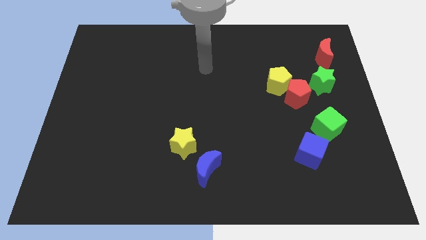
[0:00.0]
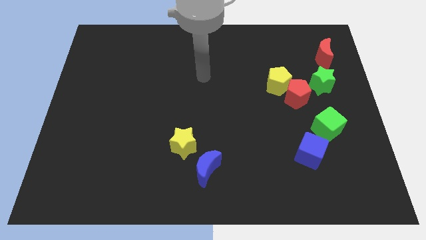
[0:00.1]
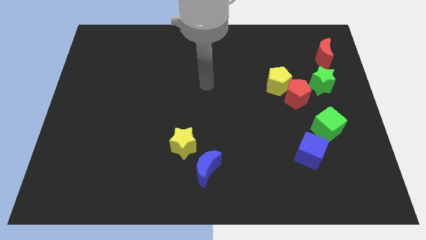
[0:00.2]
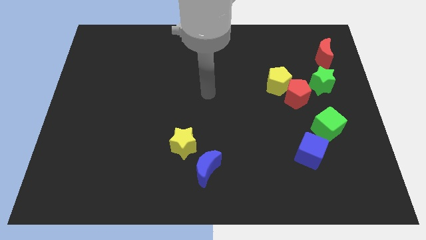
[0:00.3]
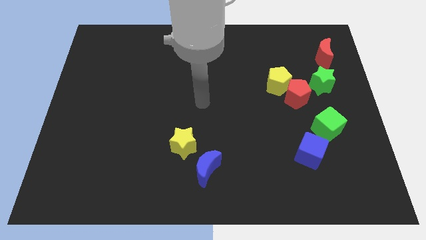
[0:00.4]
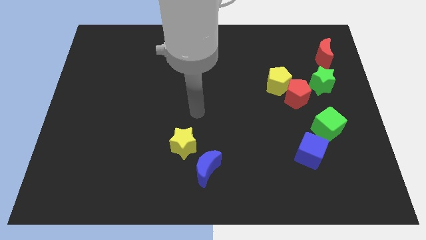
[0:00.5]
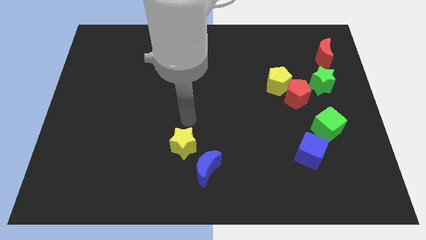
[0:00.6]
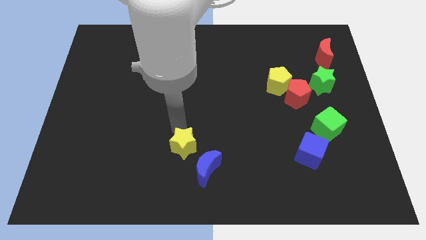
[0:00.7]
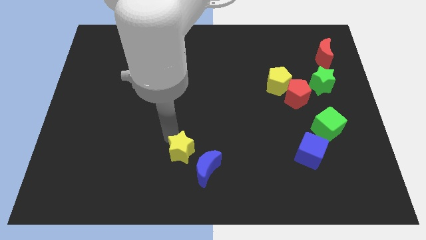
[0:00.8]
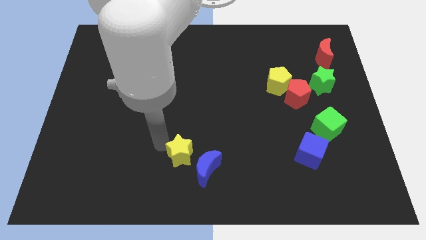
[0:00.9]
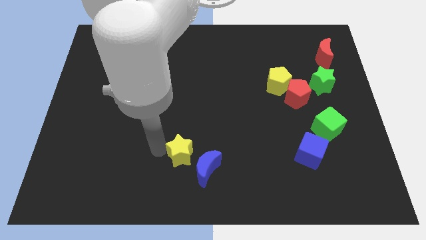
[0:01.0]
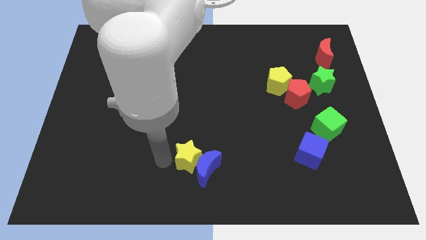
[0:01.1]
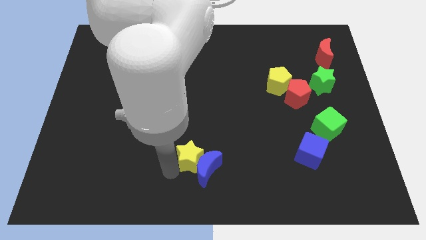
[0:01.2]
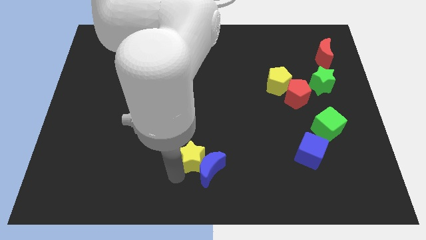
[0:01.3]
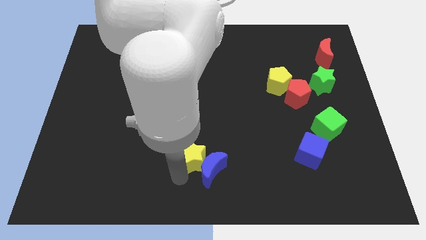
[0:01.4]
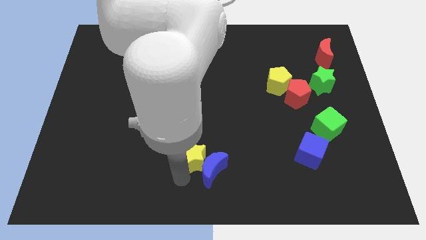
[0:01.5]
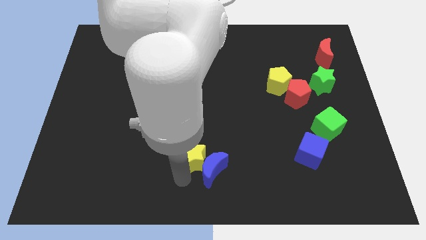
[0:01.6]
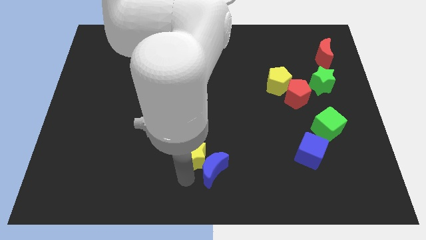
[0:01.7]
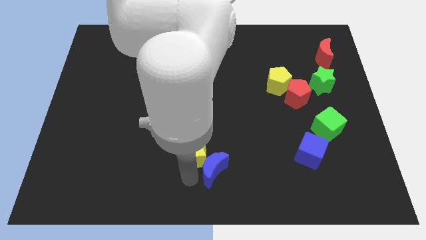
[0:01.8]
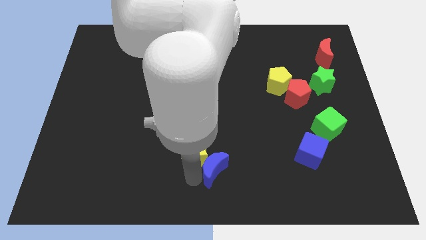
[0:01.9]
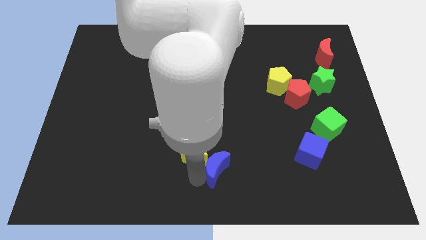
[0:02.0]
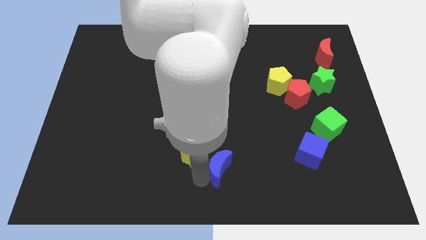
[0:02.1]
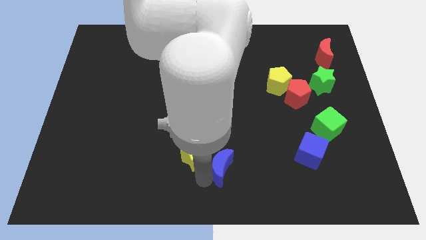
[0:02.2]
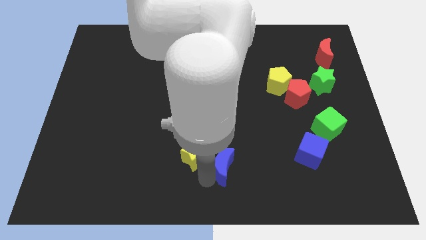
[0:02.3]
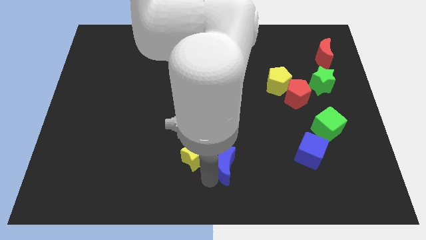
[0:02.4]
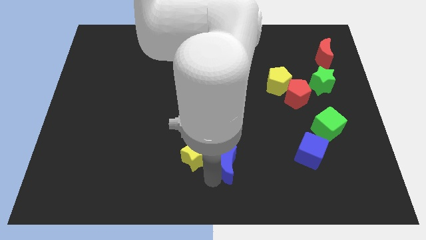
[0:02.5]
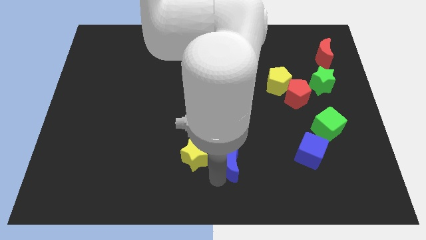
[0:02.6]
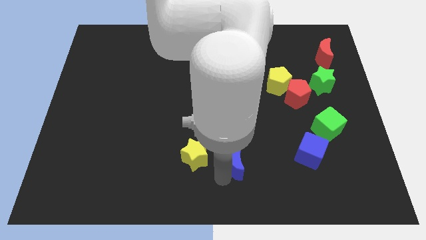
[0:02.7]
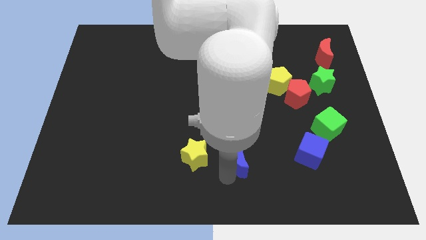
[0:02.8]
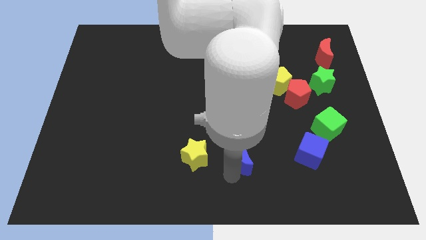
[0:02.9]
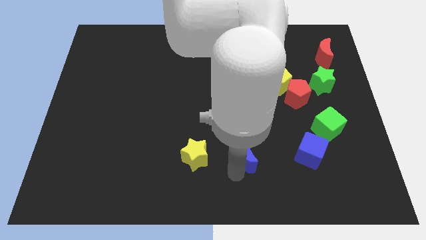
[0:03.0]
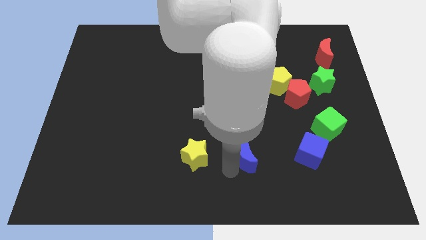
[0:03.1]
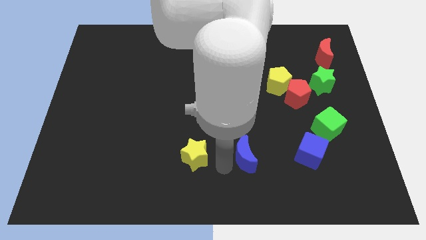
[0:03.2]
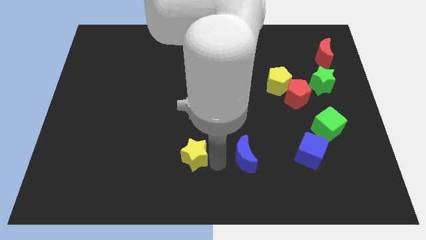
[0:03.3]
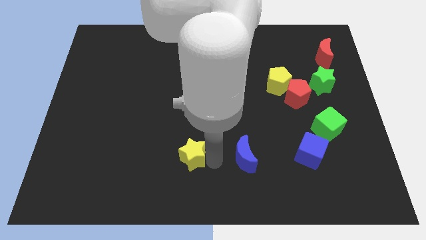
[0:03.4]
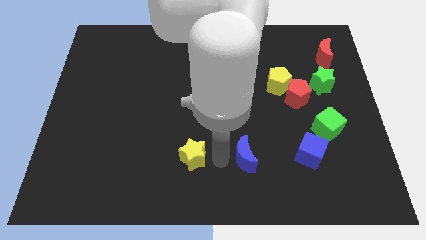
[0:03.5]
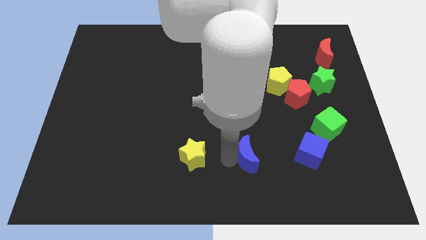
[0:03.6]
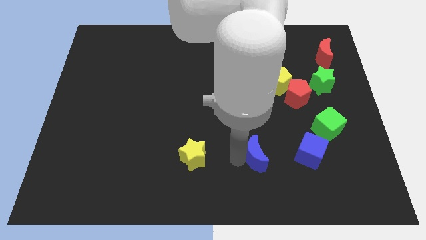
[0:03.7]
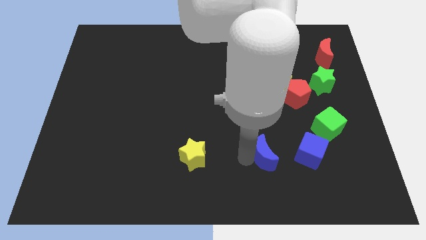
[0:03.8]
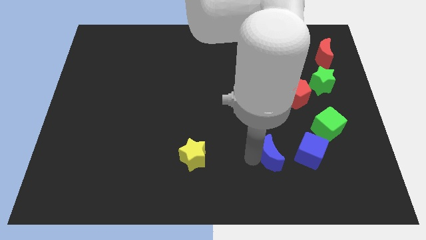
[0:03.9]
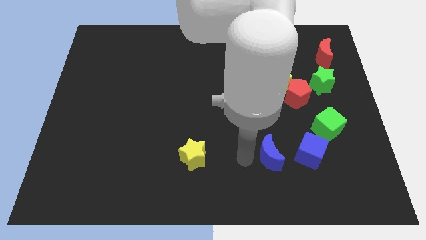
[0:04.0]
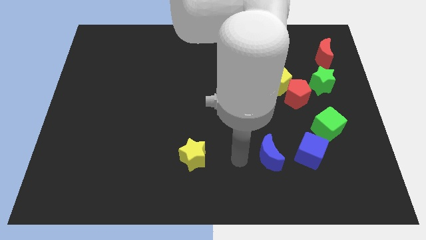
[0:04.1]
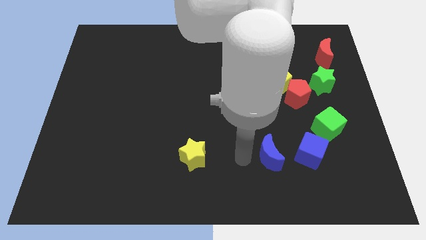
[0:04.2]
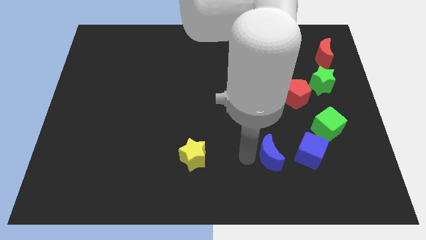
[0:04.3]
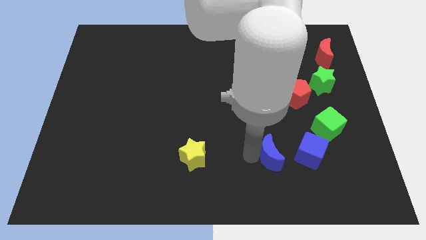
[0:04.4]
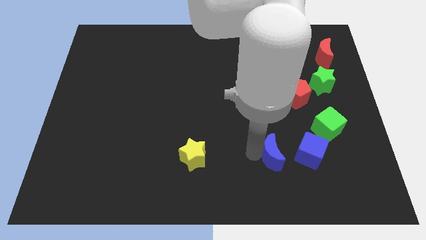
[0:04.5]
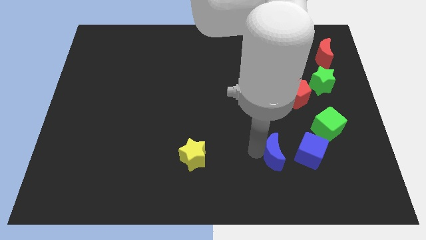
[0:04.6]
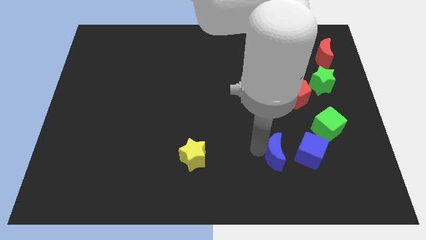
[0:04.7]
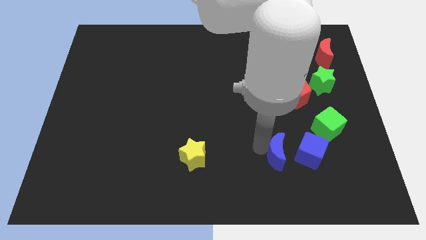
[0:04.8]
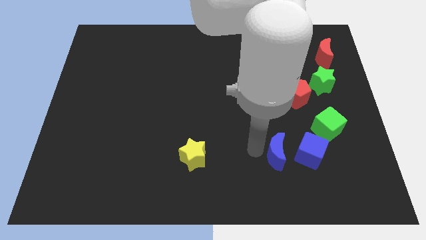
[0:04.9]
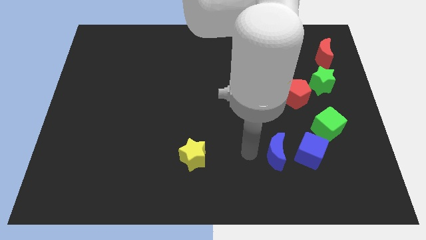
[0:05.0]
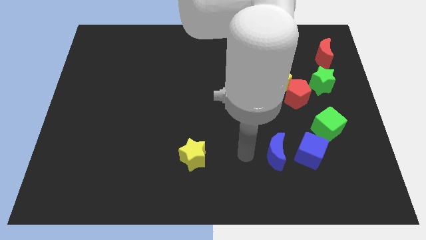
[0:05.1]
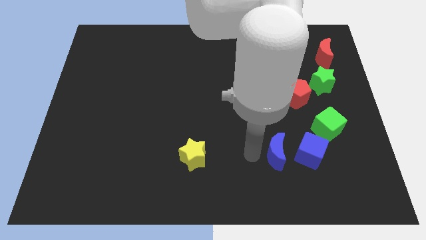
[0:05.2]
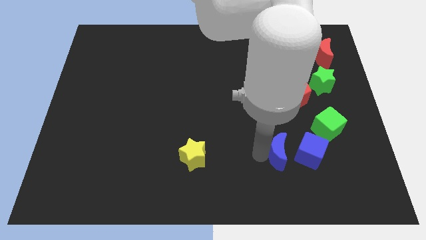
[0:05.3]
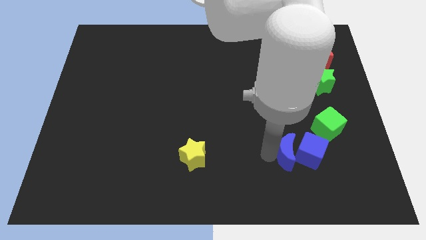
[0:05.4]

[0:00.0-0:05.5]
push the blue moon next to the blue cube

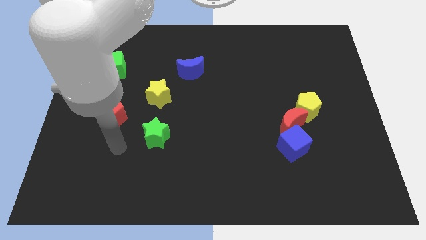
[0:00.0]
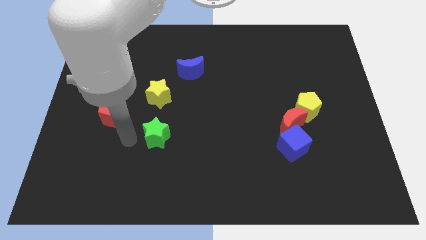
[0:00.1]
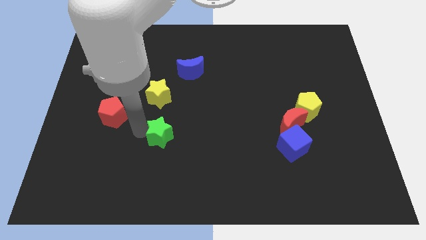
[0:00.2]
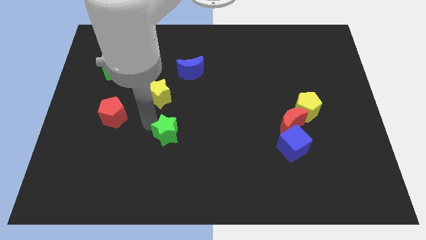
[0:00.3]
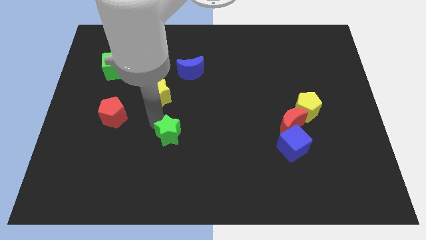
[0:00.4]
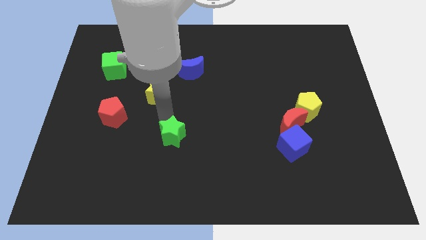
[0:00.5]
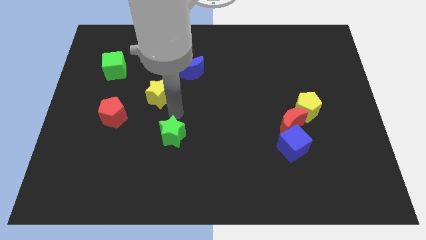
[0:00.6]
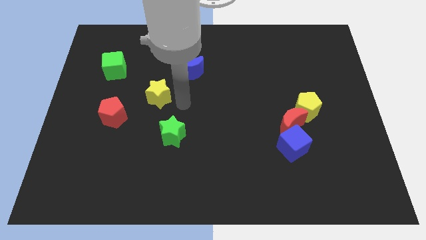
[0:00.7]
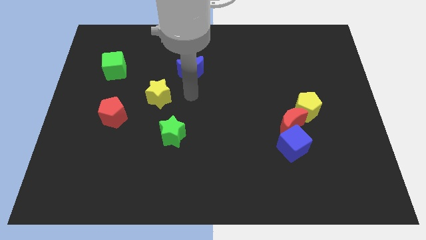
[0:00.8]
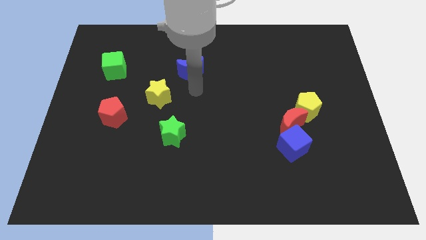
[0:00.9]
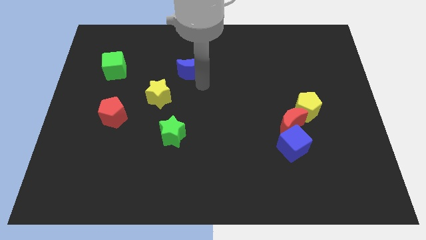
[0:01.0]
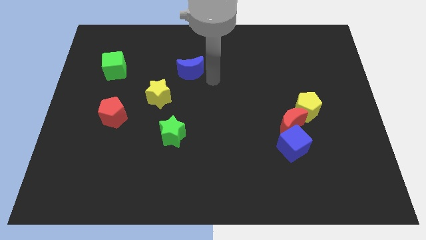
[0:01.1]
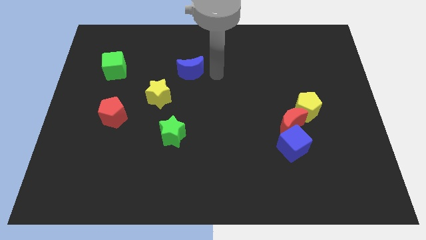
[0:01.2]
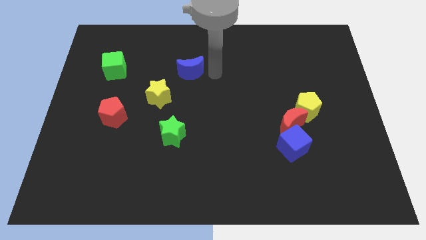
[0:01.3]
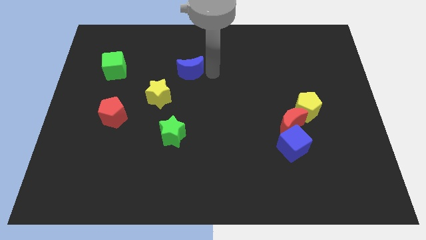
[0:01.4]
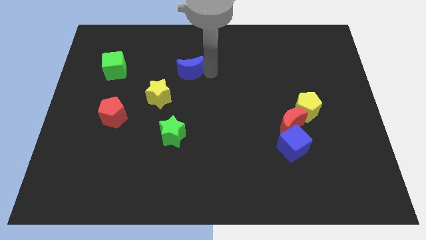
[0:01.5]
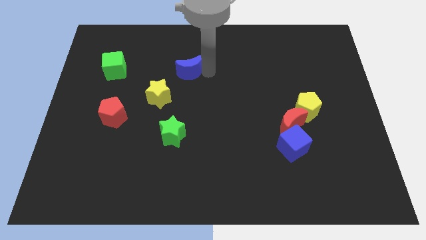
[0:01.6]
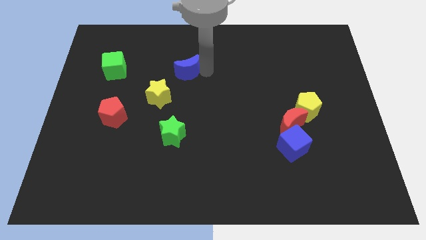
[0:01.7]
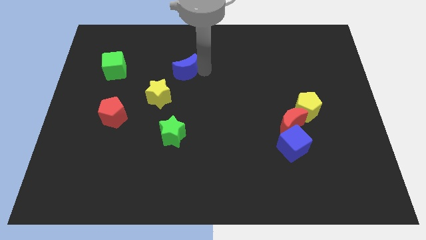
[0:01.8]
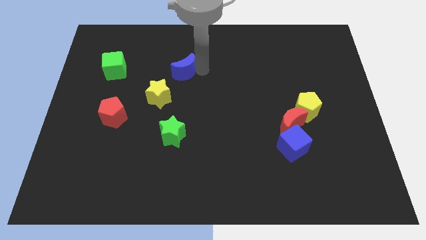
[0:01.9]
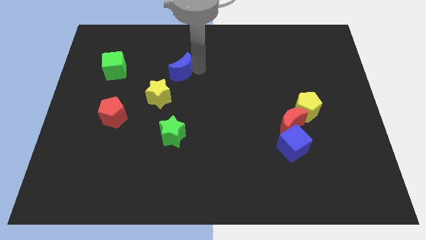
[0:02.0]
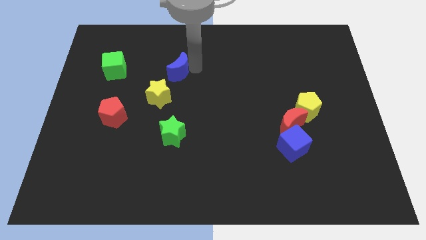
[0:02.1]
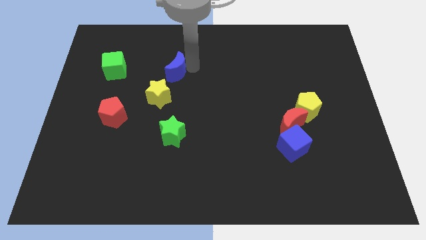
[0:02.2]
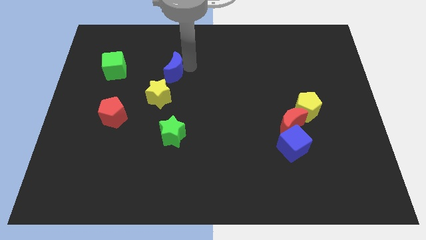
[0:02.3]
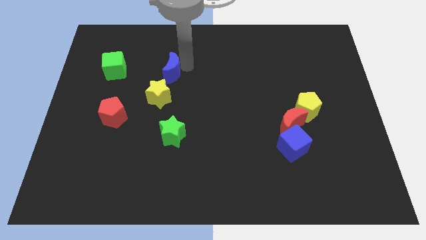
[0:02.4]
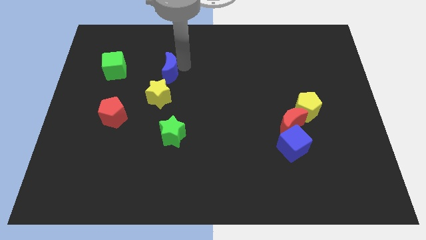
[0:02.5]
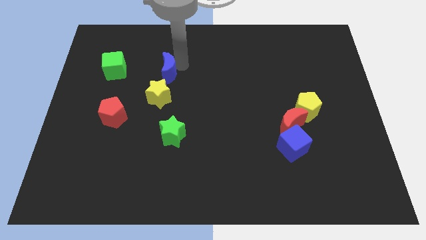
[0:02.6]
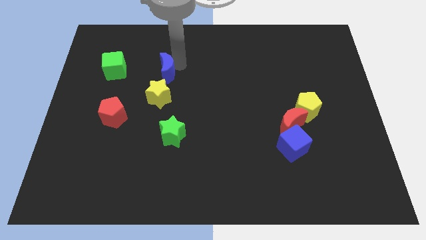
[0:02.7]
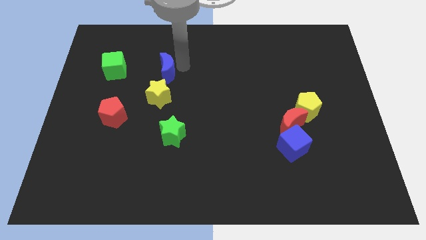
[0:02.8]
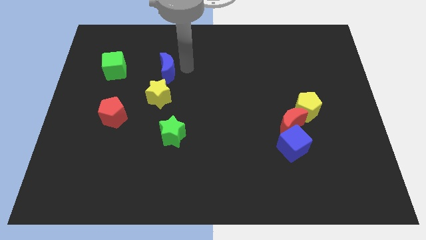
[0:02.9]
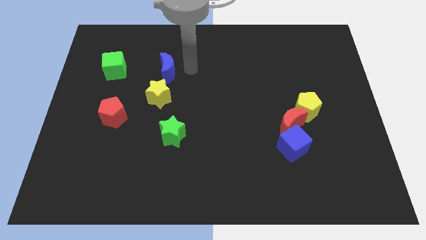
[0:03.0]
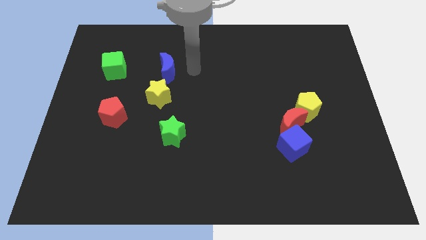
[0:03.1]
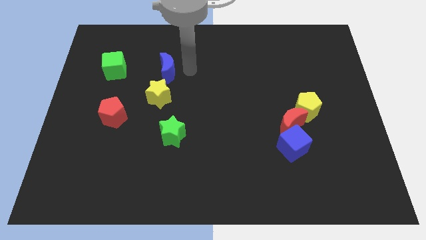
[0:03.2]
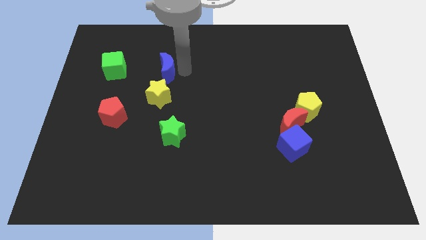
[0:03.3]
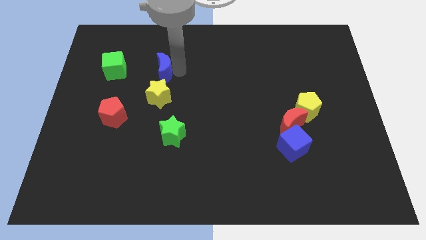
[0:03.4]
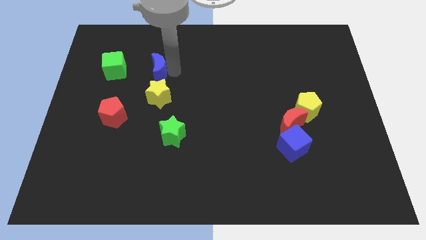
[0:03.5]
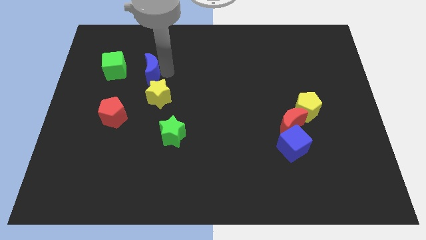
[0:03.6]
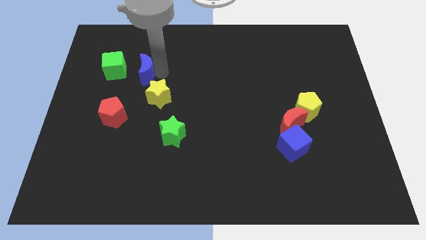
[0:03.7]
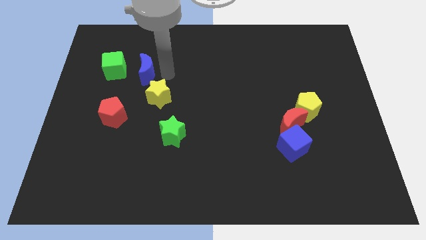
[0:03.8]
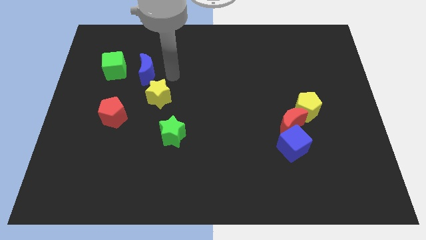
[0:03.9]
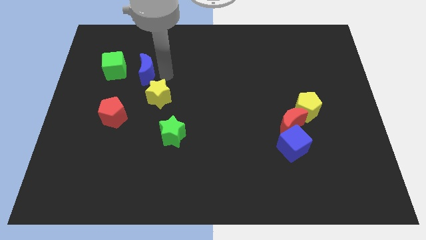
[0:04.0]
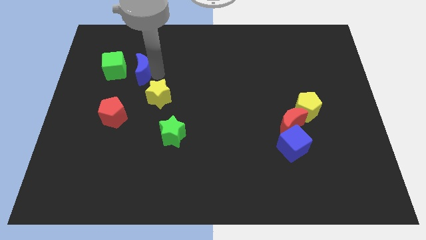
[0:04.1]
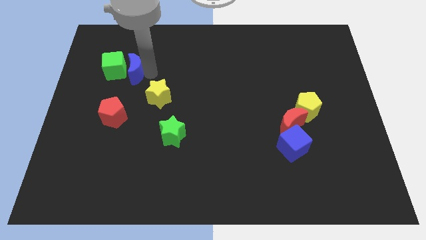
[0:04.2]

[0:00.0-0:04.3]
put the blue moon close to the green cube
